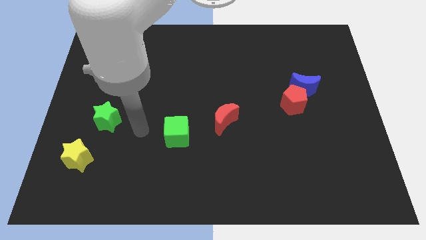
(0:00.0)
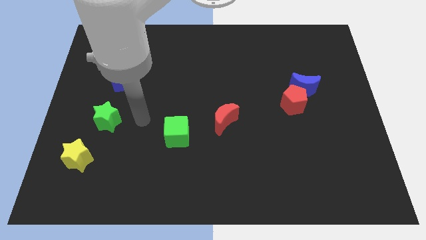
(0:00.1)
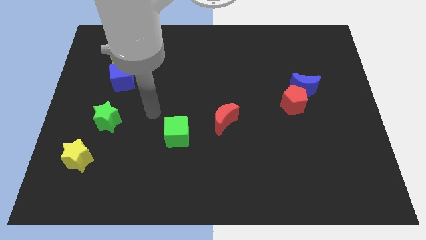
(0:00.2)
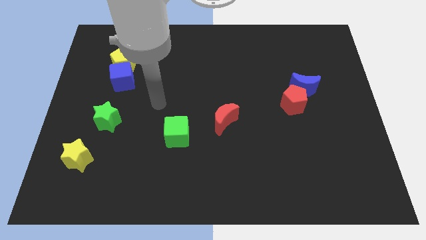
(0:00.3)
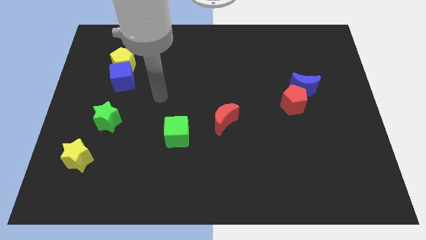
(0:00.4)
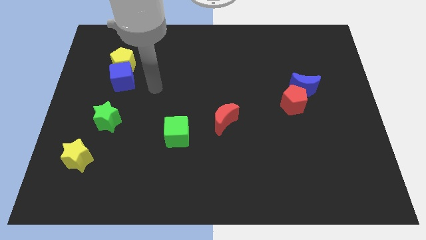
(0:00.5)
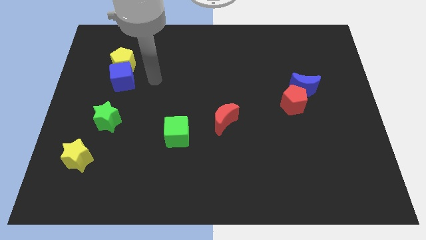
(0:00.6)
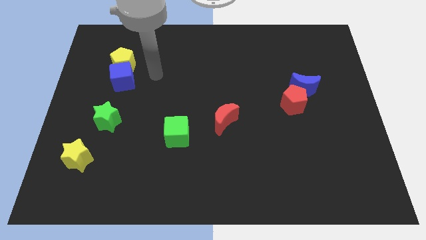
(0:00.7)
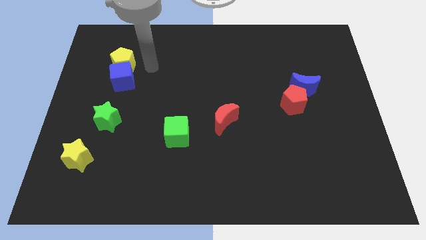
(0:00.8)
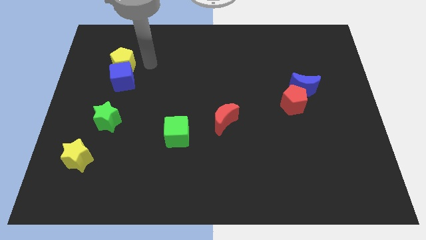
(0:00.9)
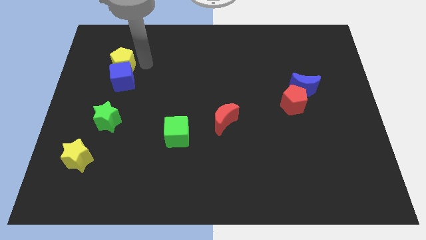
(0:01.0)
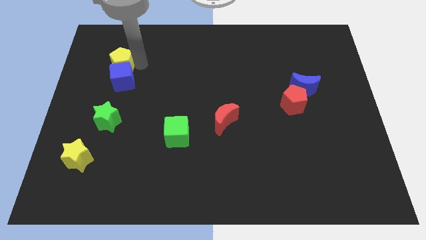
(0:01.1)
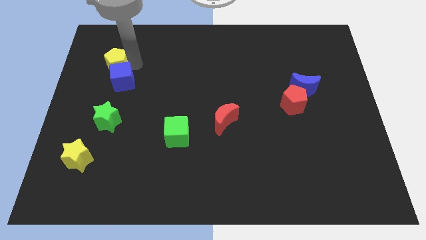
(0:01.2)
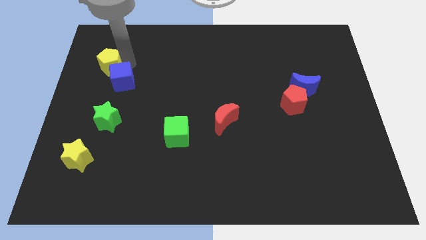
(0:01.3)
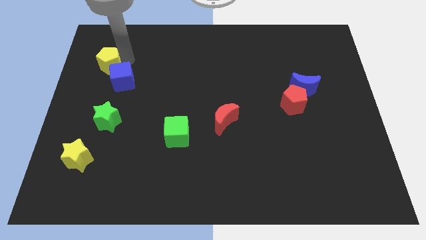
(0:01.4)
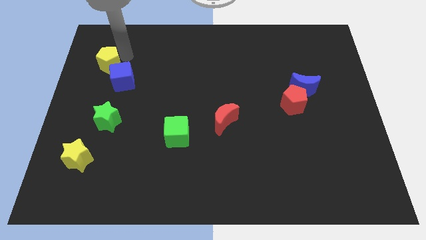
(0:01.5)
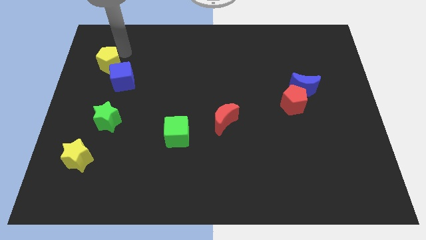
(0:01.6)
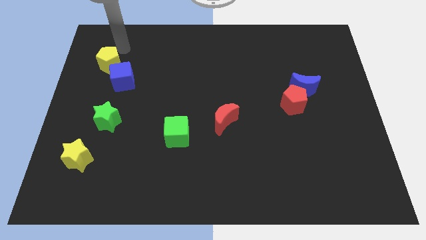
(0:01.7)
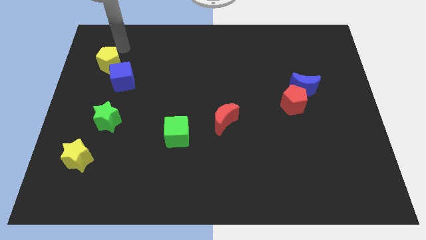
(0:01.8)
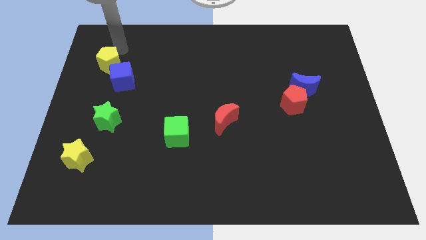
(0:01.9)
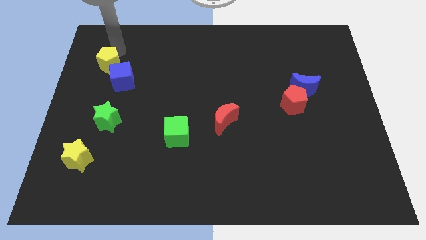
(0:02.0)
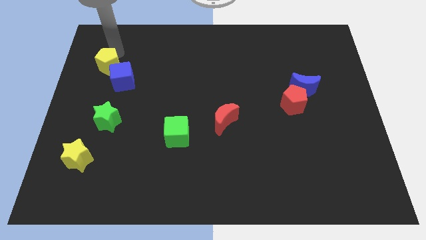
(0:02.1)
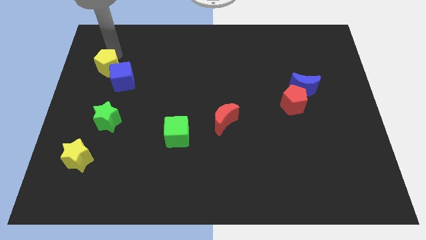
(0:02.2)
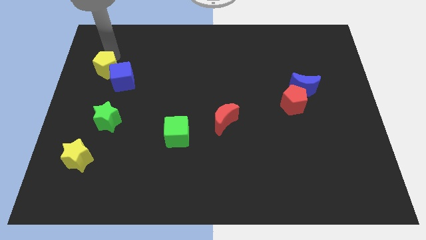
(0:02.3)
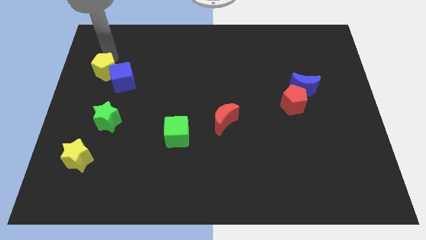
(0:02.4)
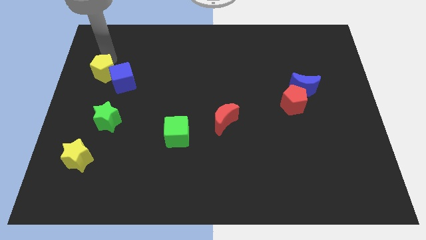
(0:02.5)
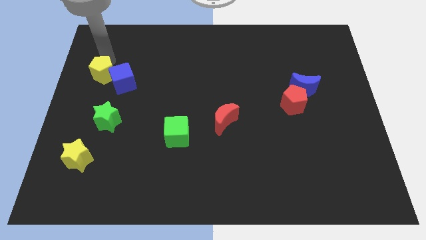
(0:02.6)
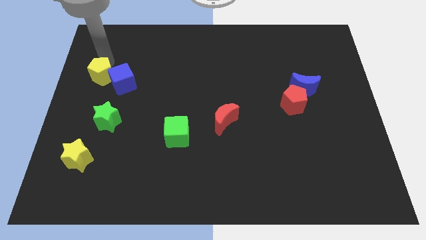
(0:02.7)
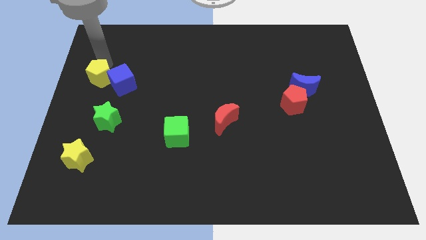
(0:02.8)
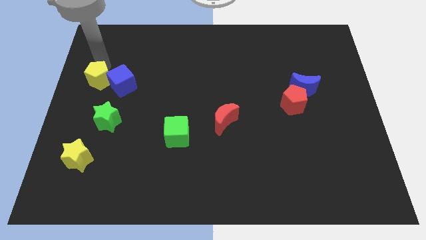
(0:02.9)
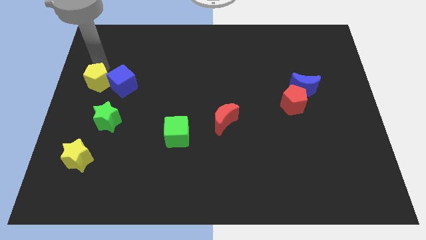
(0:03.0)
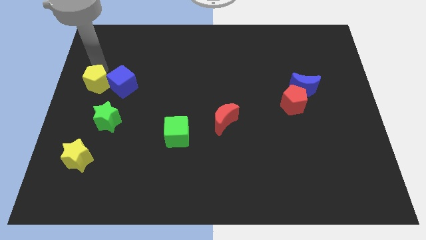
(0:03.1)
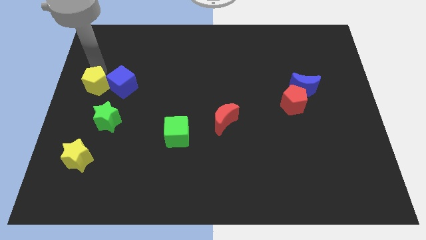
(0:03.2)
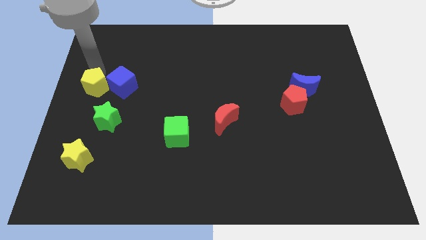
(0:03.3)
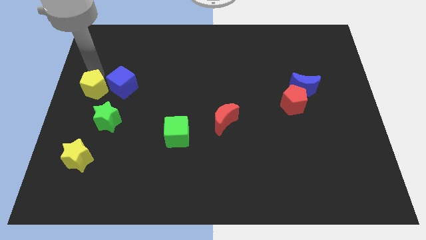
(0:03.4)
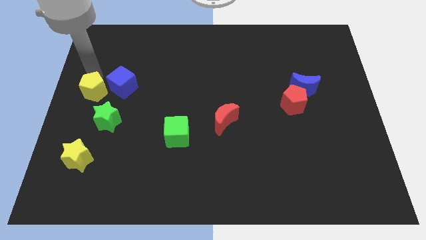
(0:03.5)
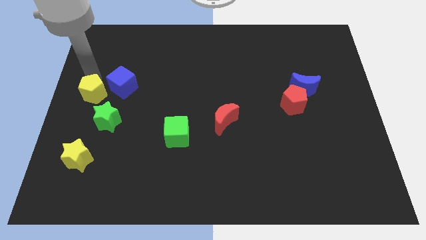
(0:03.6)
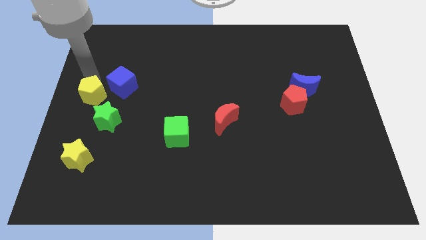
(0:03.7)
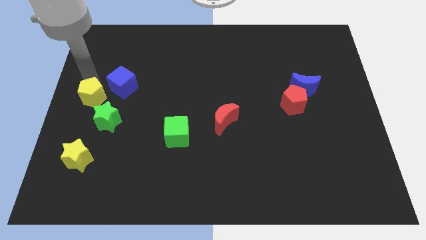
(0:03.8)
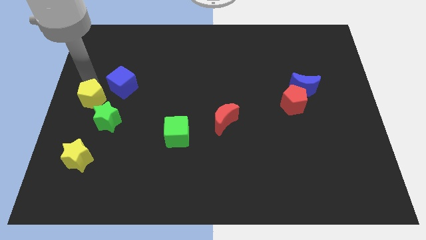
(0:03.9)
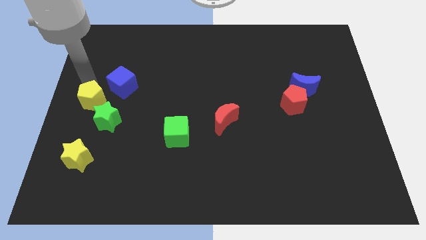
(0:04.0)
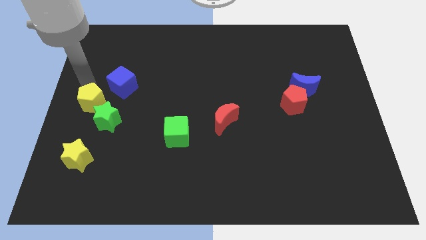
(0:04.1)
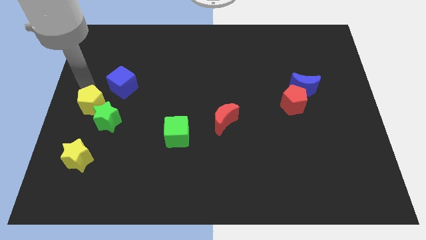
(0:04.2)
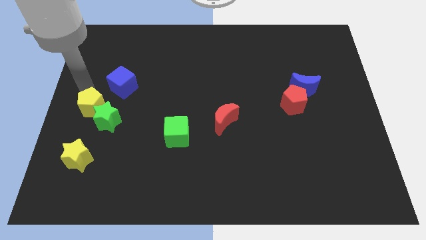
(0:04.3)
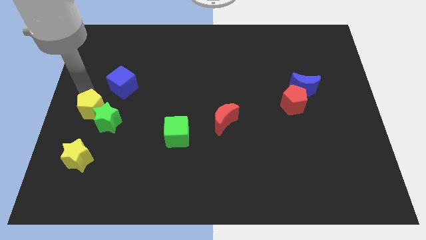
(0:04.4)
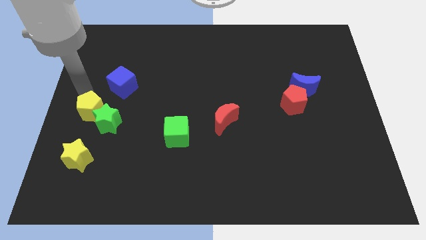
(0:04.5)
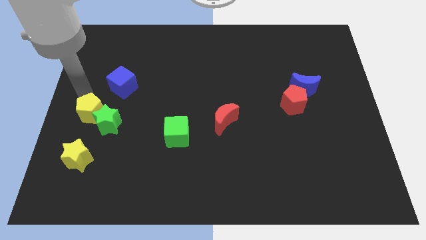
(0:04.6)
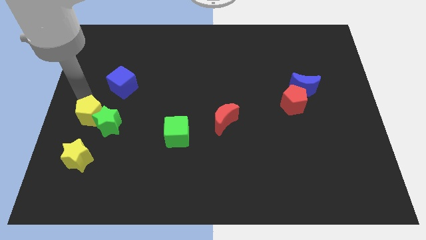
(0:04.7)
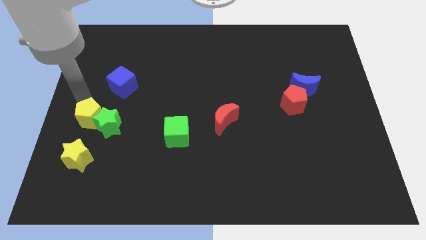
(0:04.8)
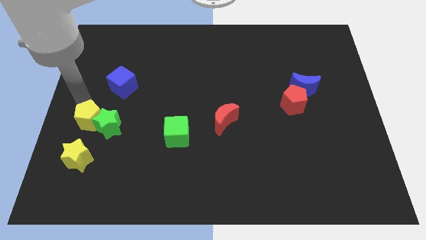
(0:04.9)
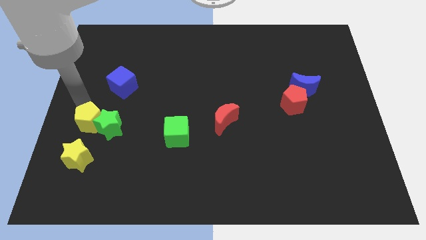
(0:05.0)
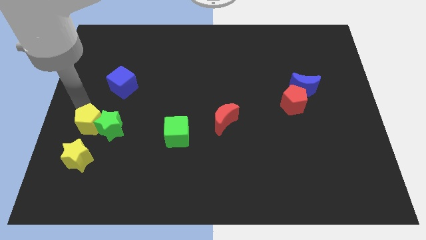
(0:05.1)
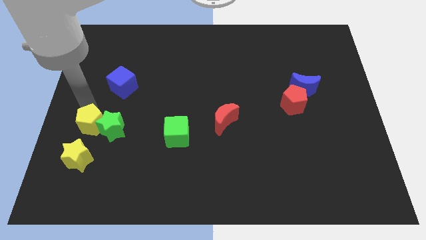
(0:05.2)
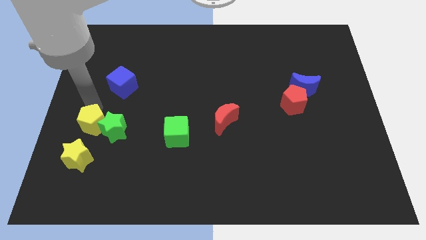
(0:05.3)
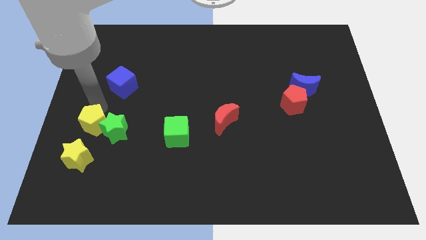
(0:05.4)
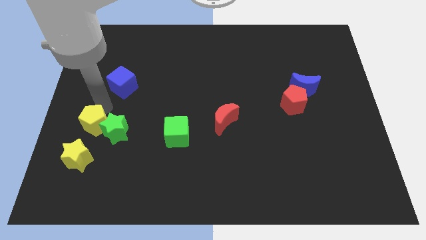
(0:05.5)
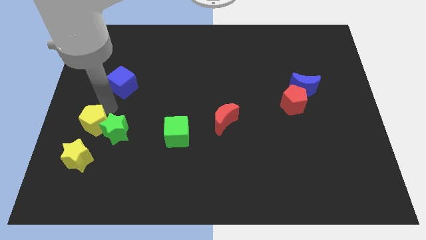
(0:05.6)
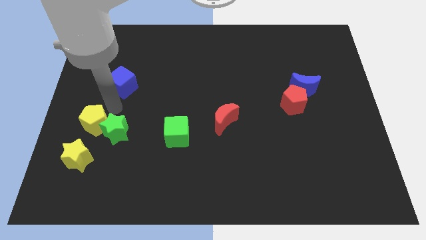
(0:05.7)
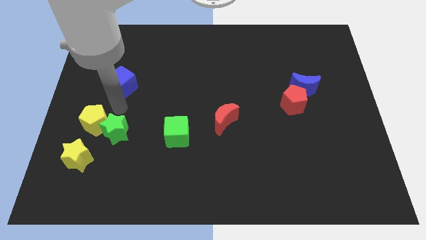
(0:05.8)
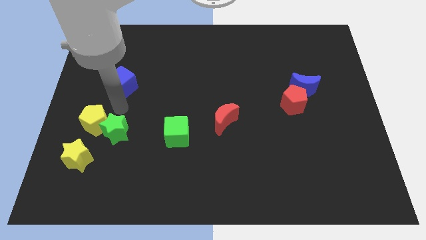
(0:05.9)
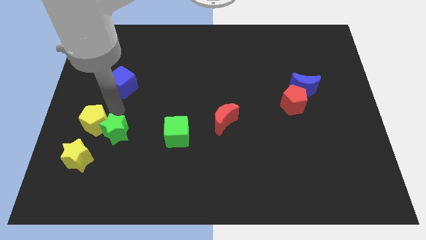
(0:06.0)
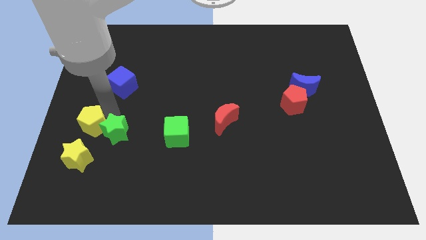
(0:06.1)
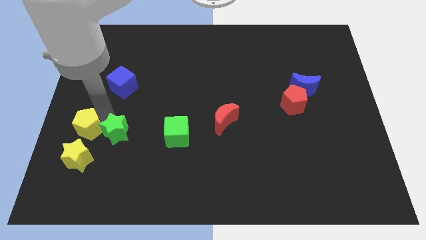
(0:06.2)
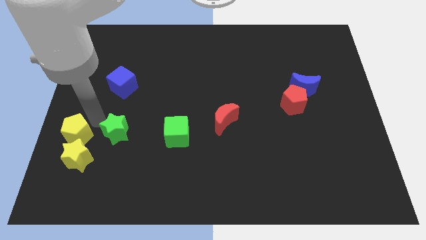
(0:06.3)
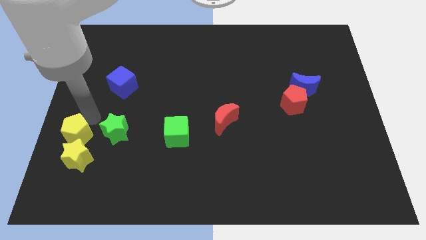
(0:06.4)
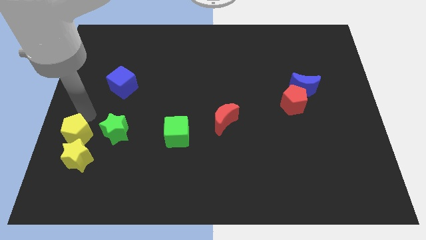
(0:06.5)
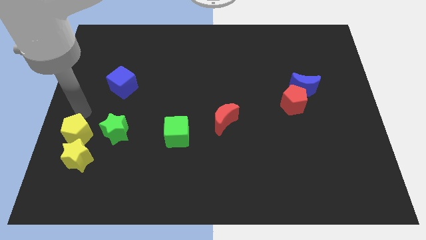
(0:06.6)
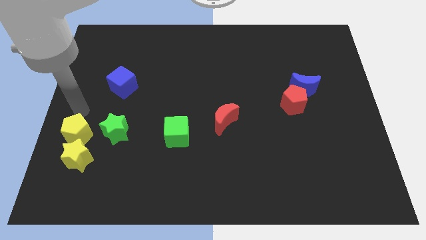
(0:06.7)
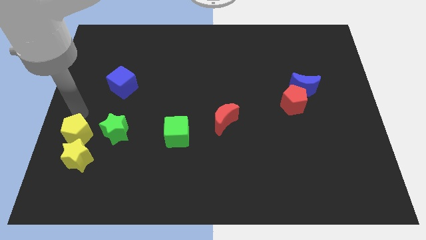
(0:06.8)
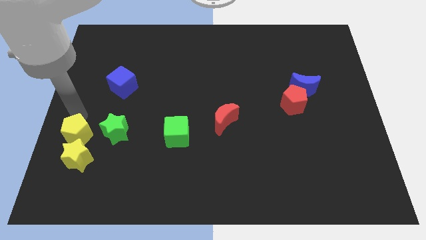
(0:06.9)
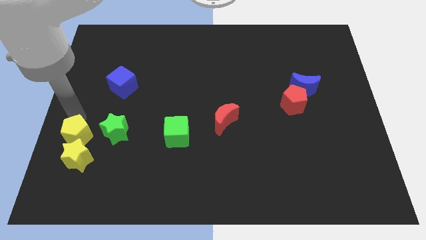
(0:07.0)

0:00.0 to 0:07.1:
push the yellow pentagon close to the yellow star

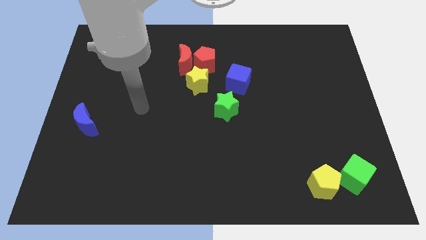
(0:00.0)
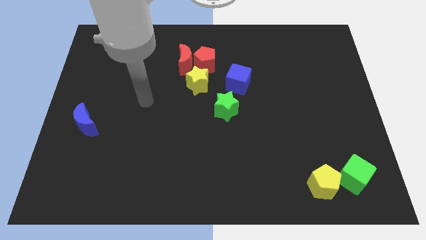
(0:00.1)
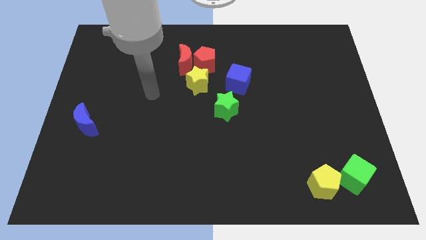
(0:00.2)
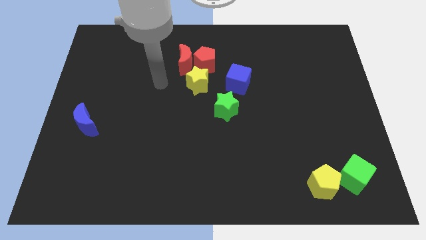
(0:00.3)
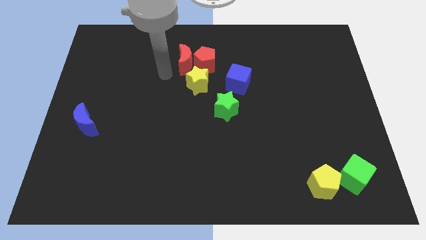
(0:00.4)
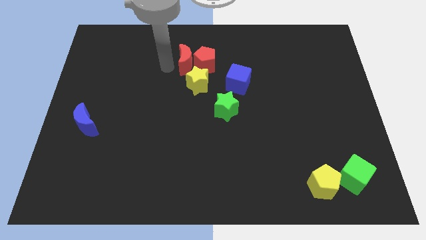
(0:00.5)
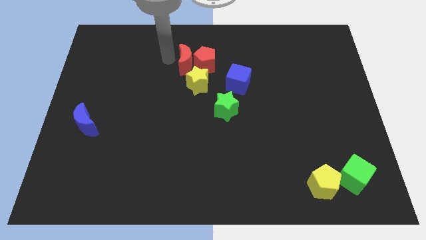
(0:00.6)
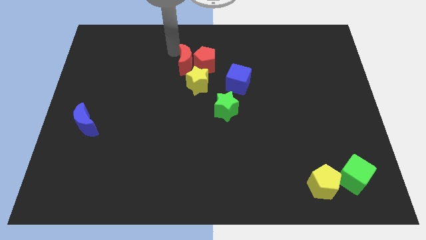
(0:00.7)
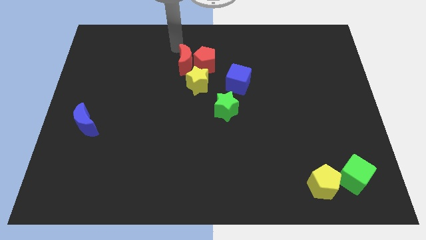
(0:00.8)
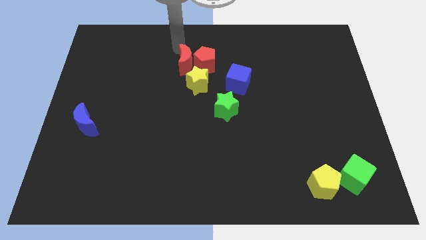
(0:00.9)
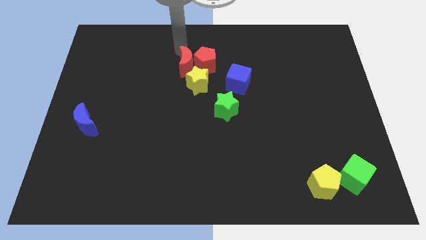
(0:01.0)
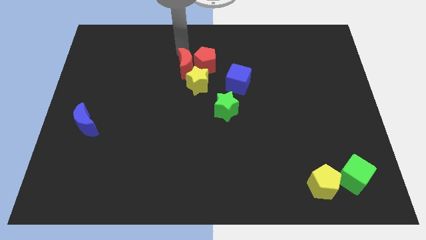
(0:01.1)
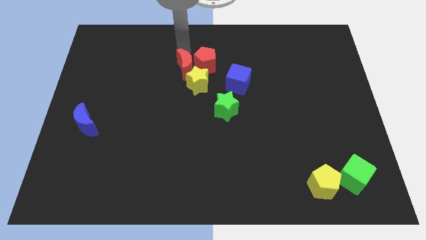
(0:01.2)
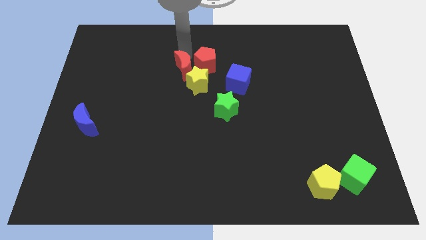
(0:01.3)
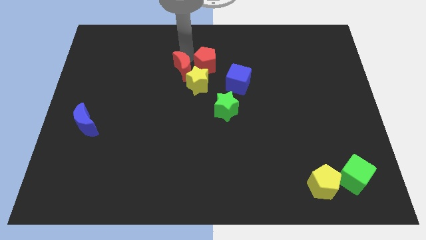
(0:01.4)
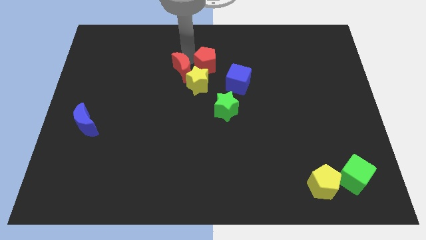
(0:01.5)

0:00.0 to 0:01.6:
put the red moon next to the yellow star
